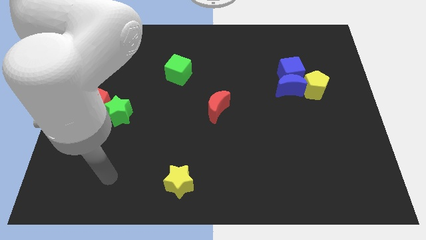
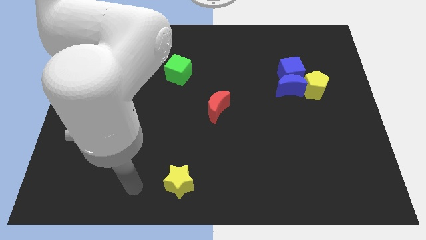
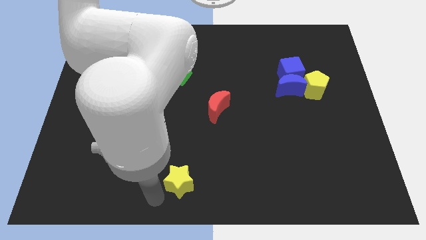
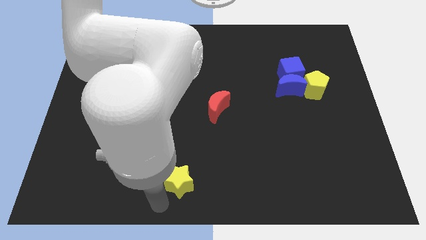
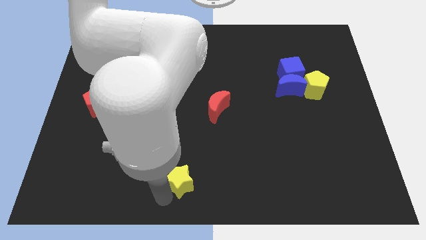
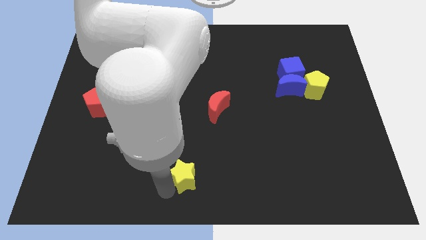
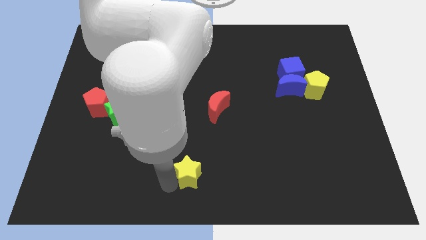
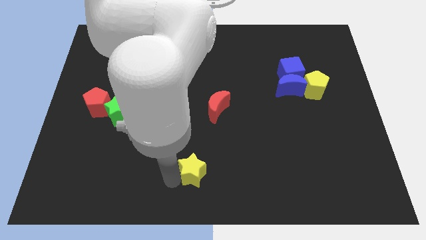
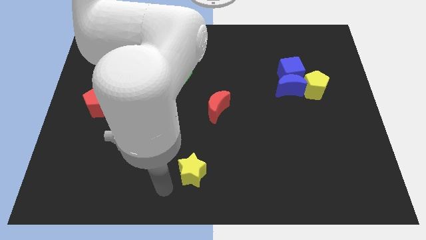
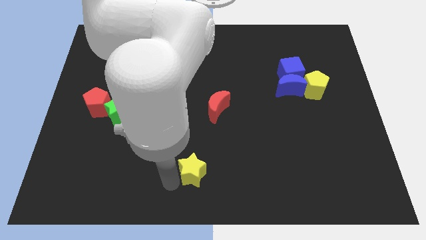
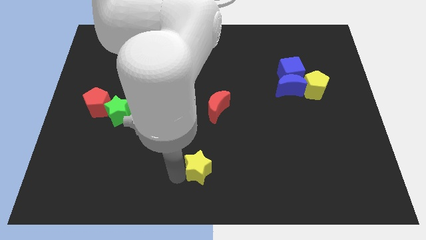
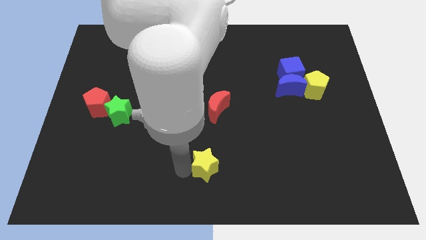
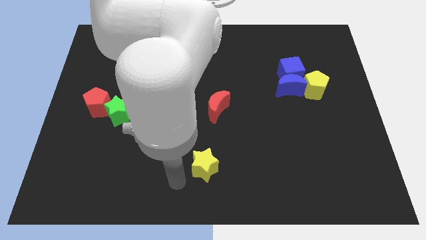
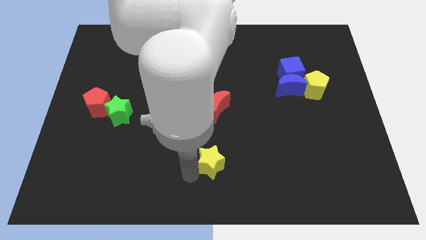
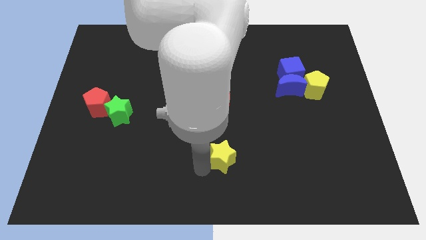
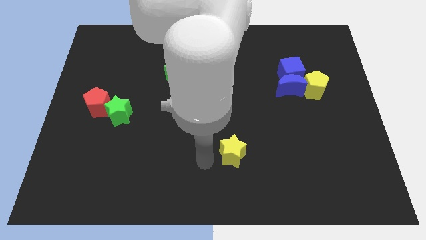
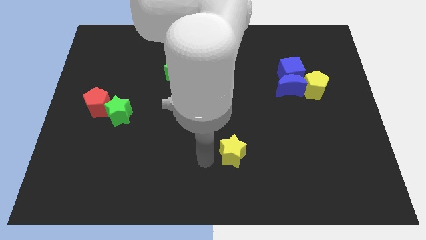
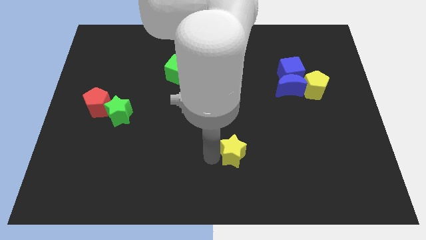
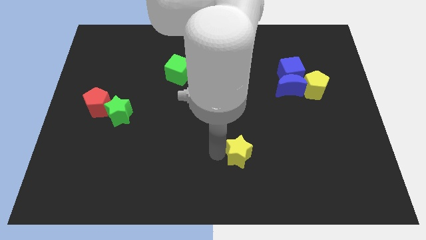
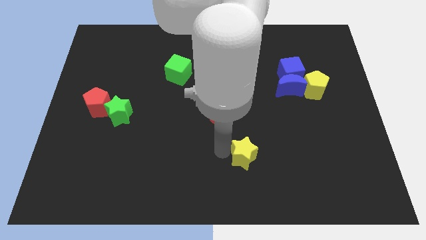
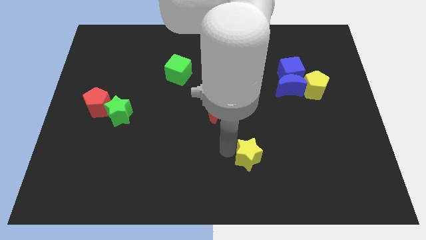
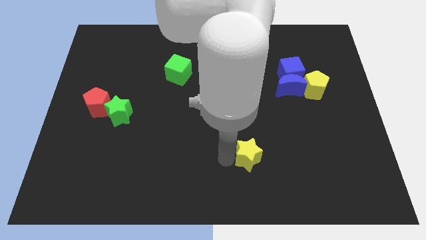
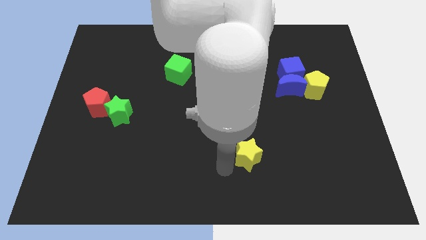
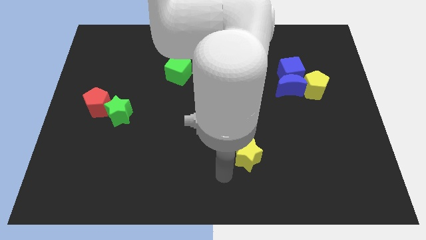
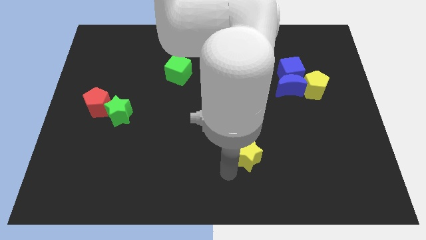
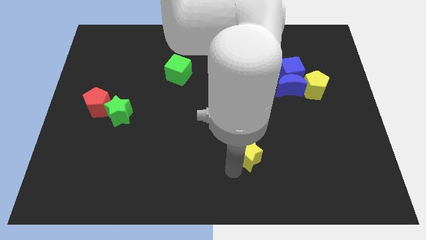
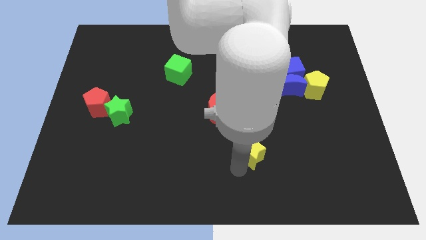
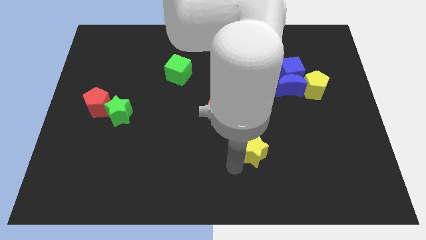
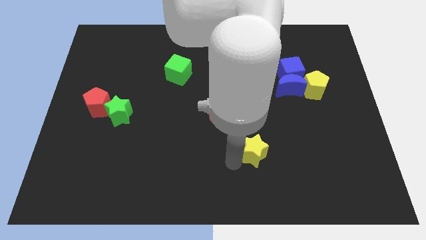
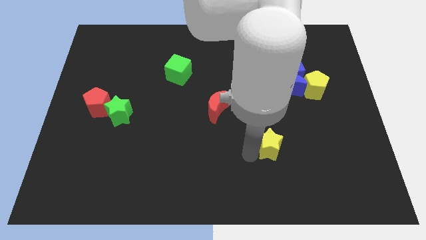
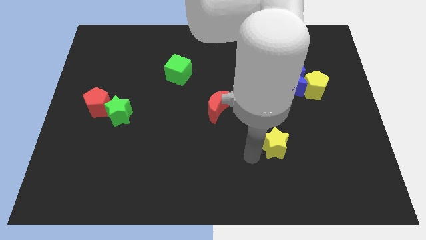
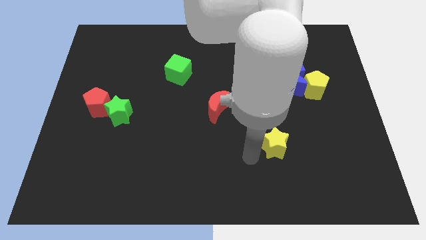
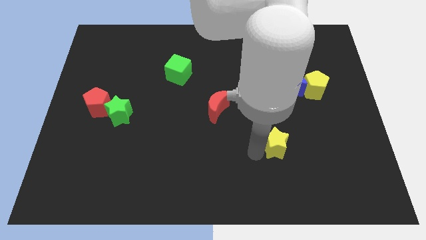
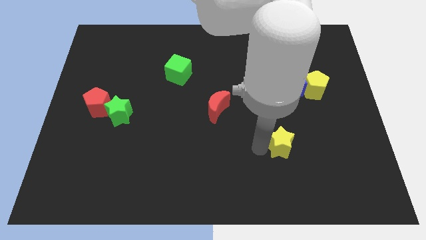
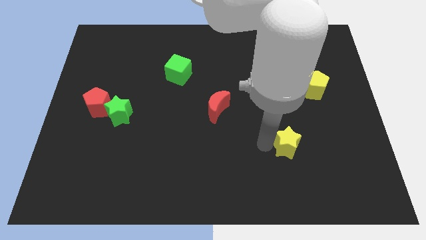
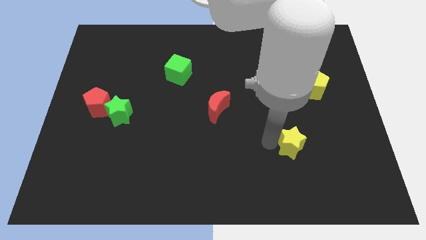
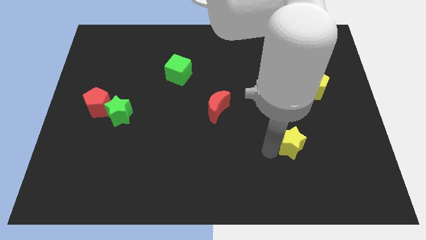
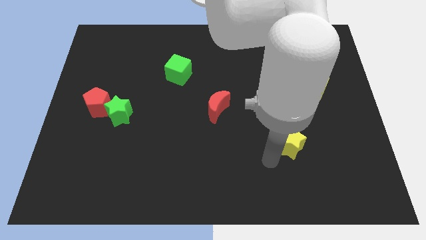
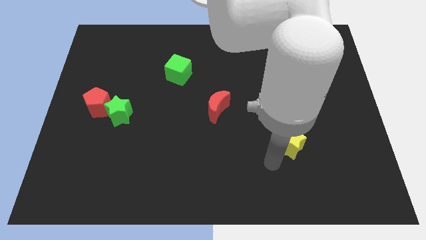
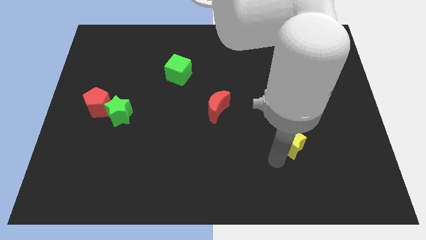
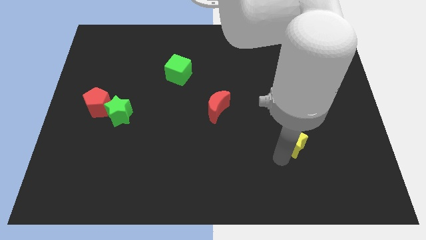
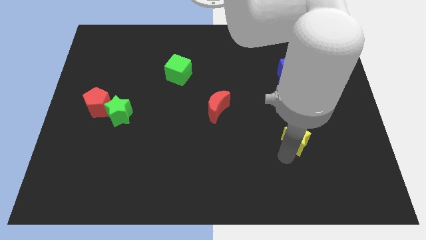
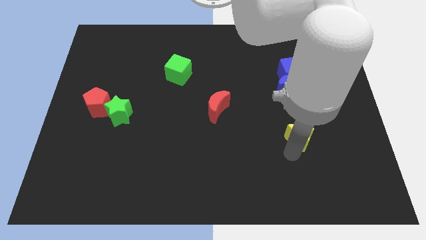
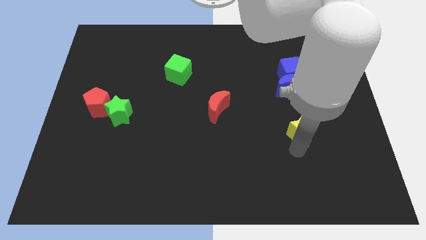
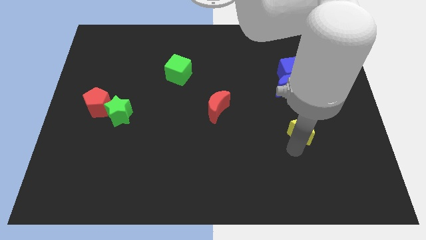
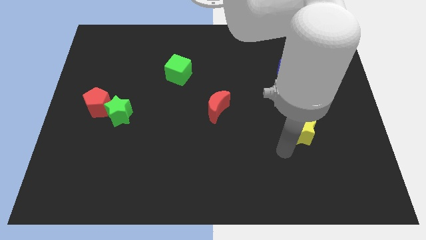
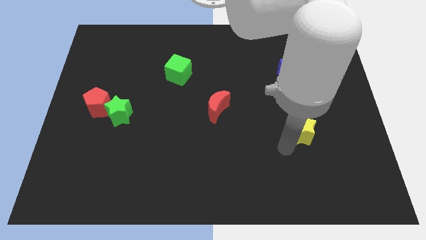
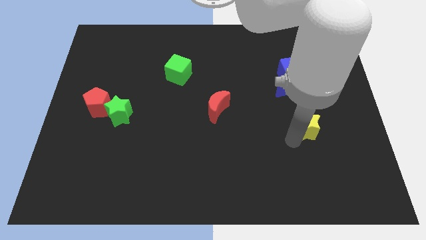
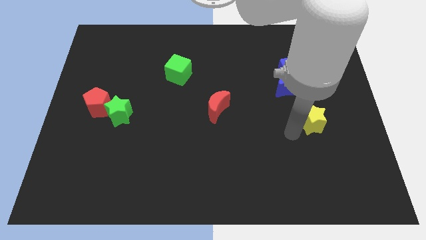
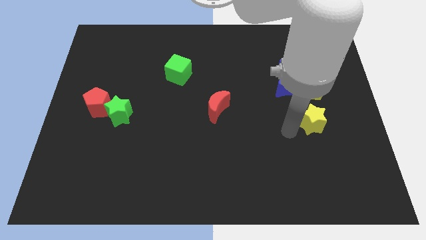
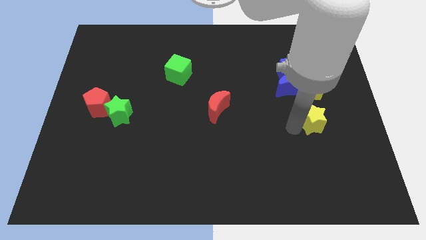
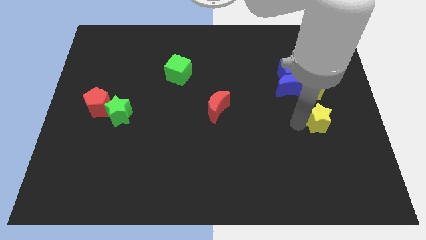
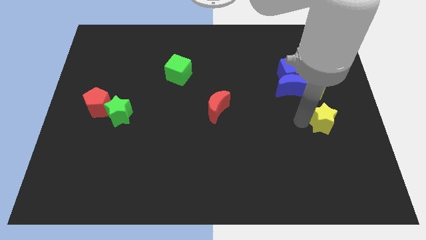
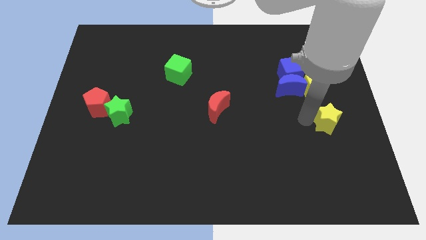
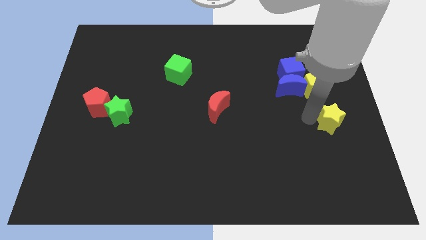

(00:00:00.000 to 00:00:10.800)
move the yellow star to the center right

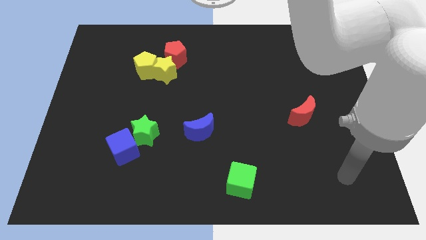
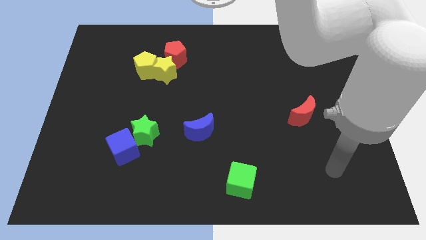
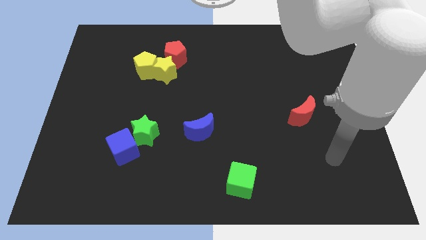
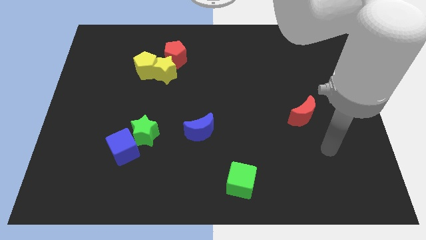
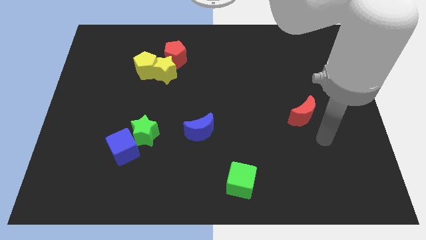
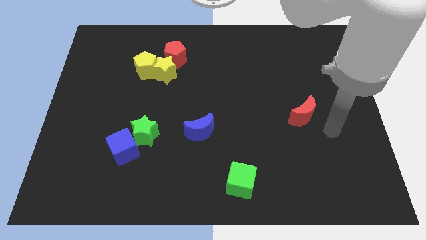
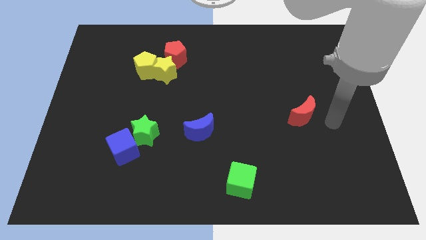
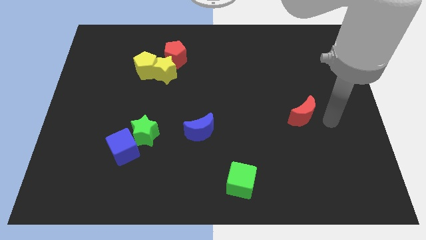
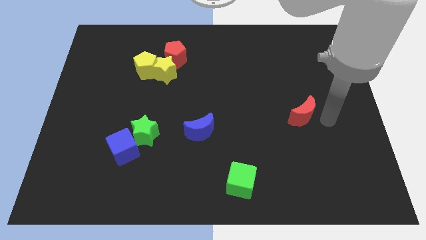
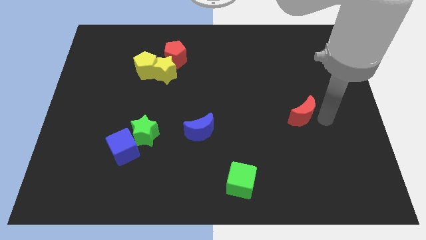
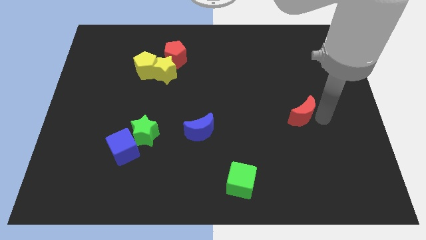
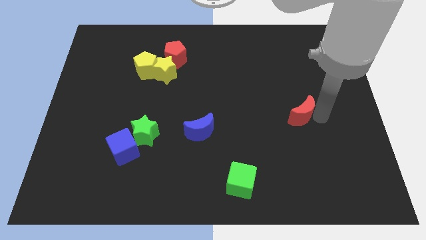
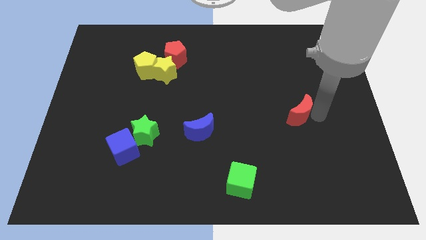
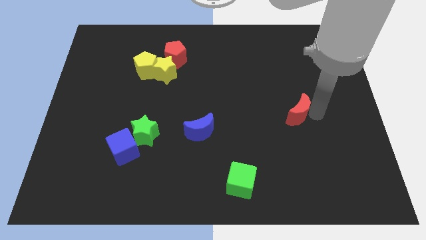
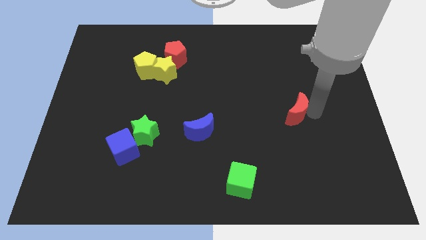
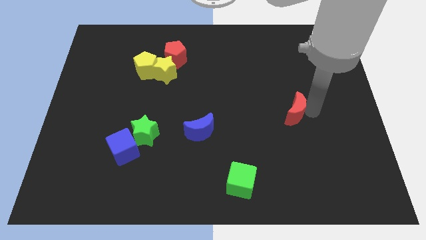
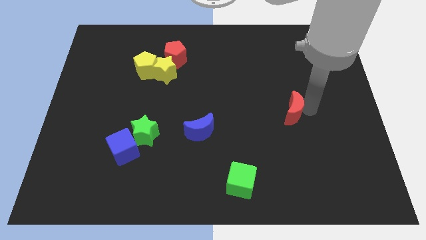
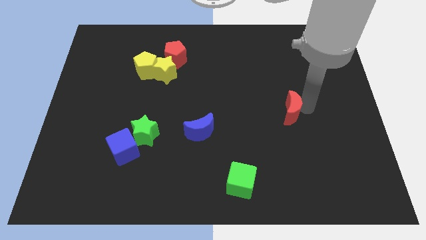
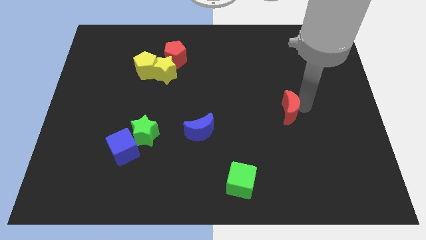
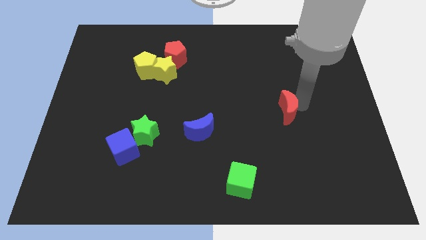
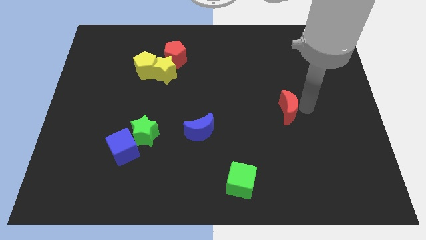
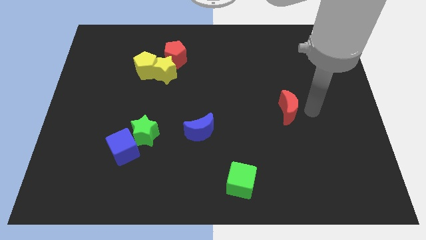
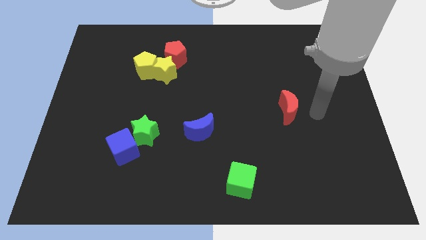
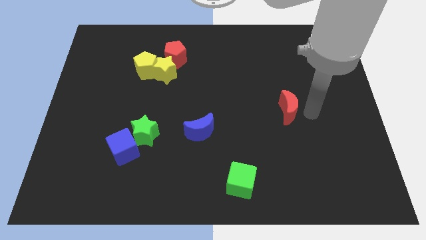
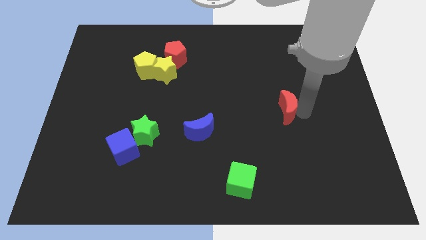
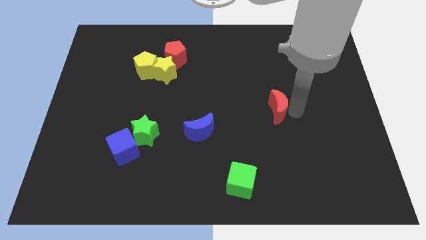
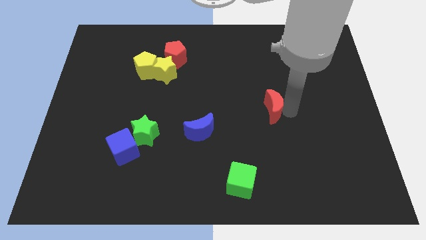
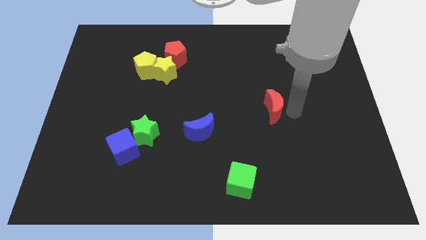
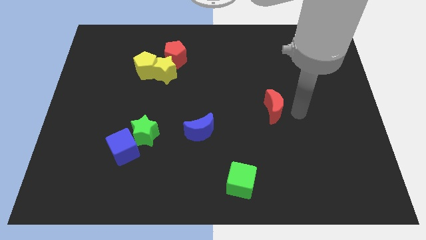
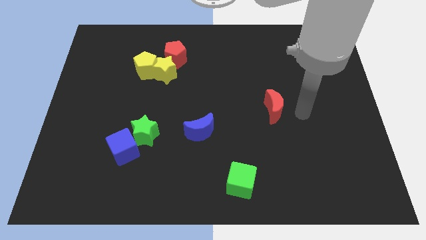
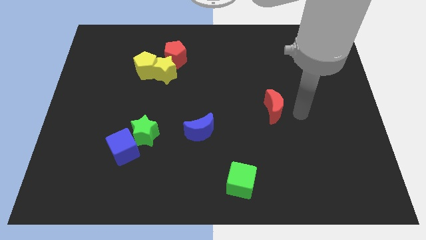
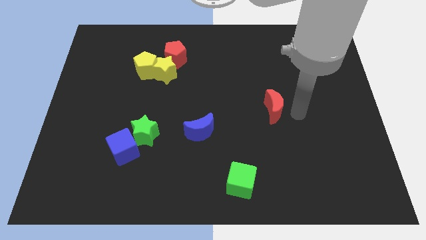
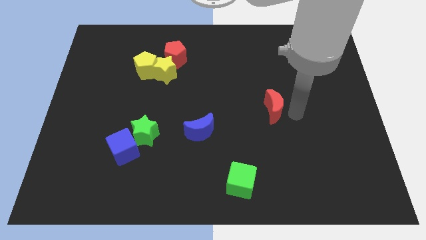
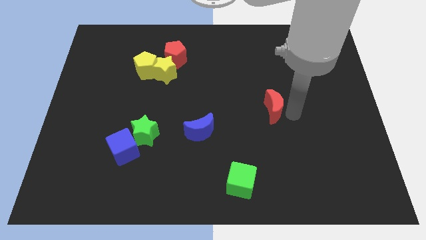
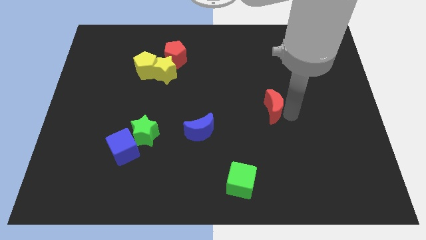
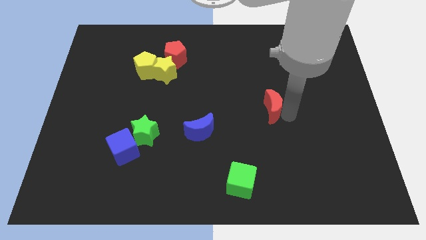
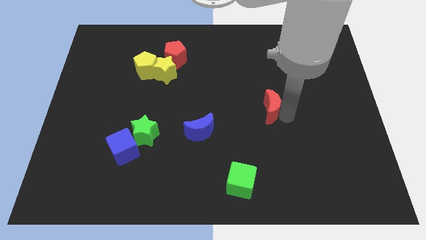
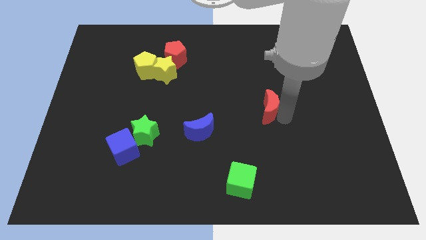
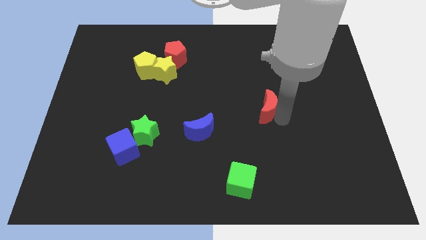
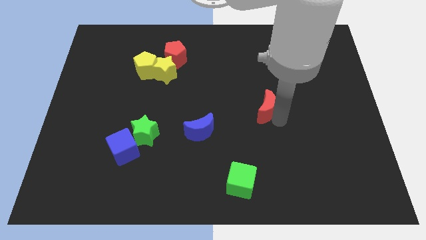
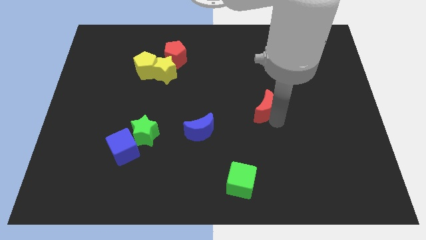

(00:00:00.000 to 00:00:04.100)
push the red moon to the center of the board
